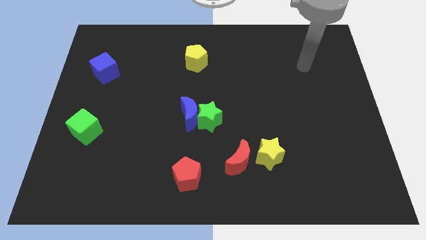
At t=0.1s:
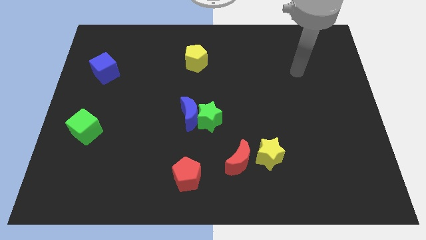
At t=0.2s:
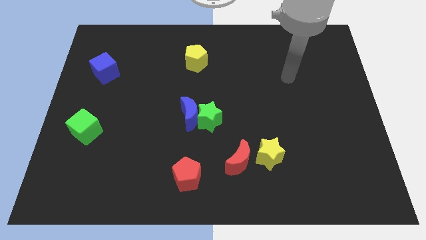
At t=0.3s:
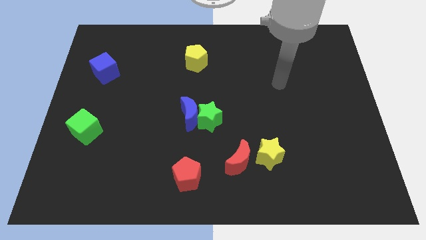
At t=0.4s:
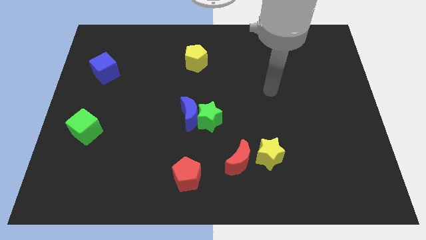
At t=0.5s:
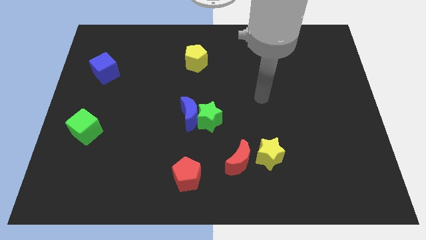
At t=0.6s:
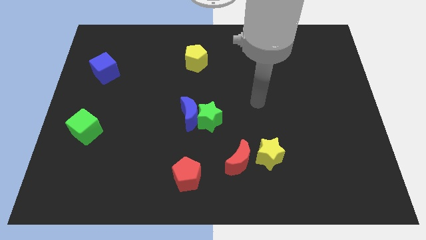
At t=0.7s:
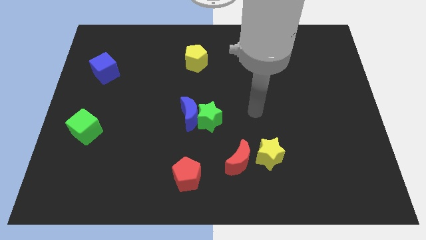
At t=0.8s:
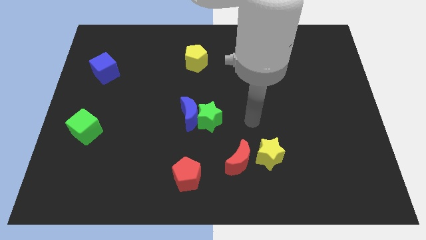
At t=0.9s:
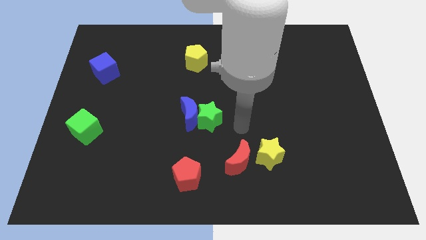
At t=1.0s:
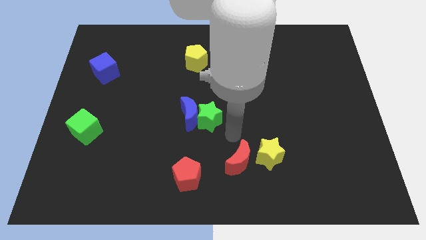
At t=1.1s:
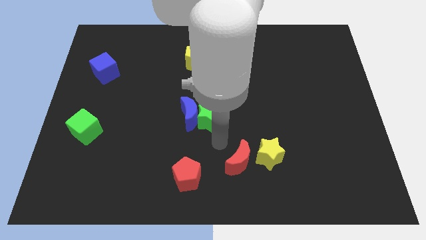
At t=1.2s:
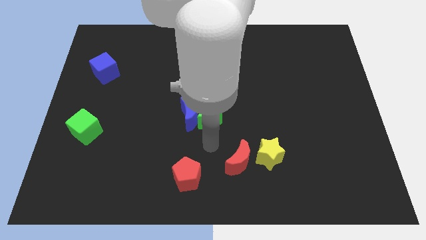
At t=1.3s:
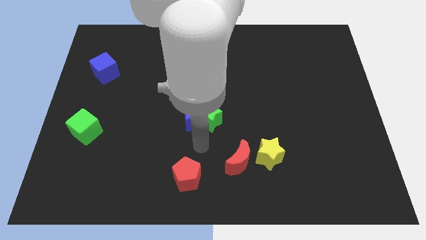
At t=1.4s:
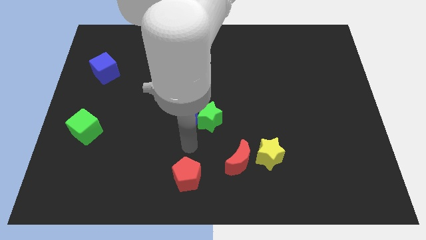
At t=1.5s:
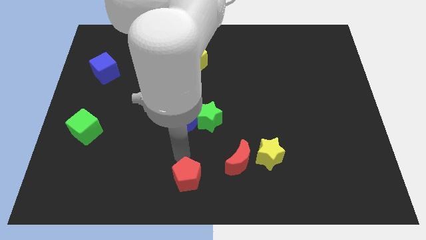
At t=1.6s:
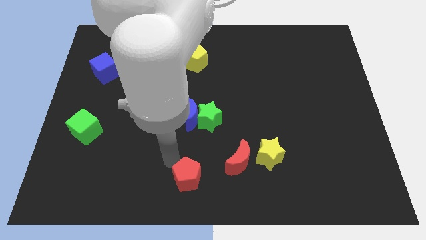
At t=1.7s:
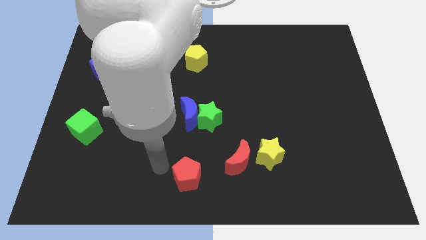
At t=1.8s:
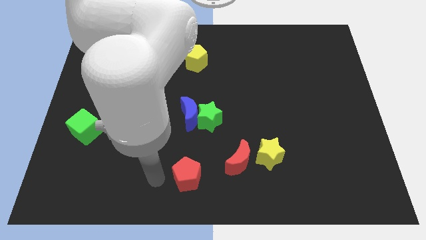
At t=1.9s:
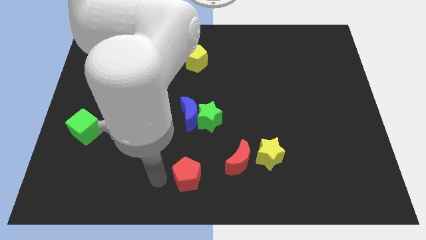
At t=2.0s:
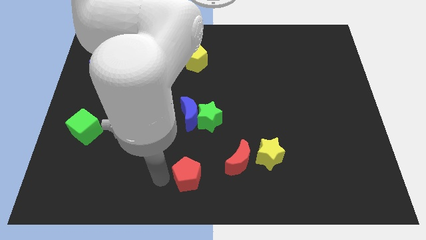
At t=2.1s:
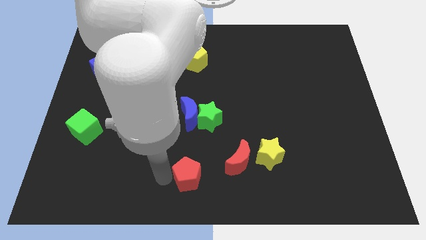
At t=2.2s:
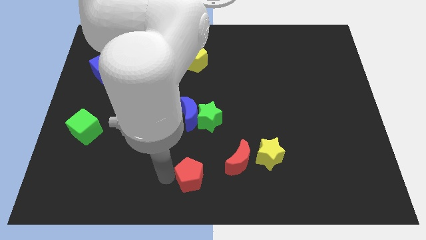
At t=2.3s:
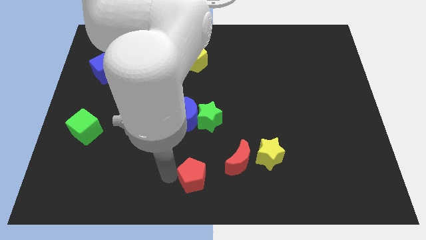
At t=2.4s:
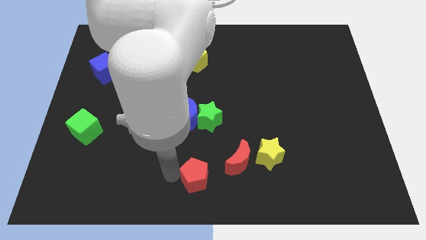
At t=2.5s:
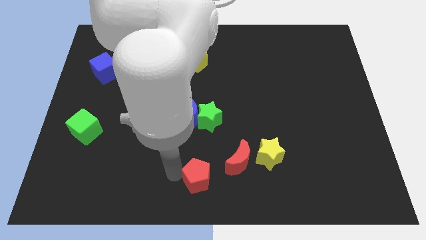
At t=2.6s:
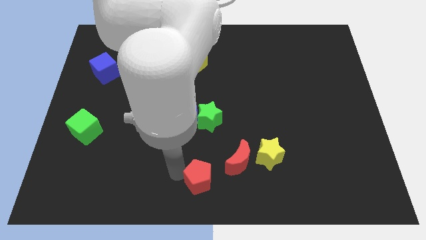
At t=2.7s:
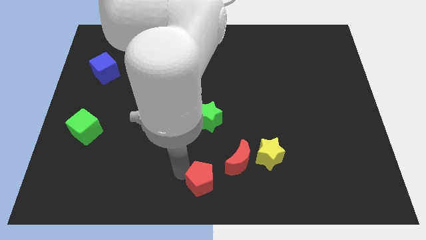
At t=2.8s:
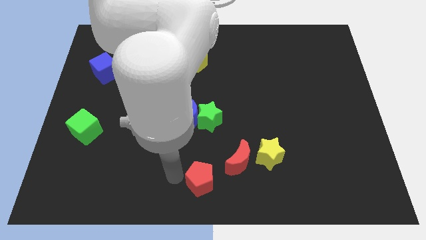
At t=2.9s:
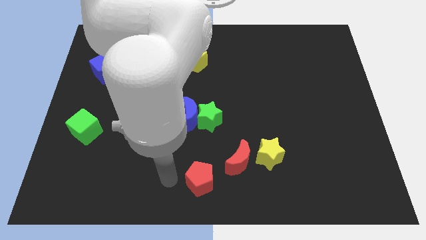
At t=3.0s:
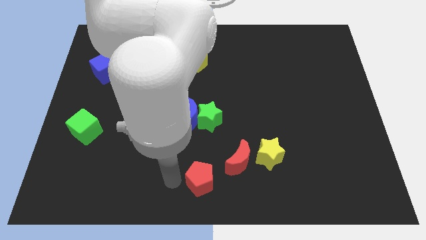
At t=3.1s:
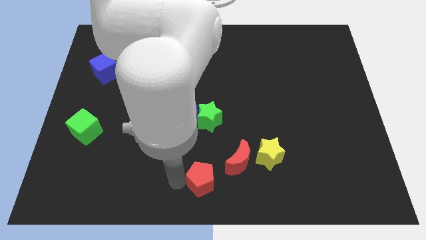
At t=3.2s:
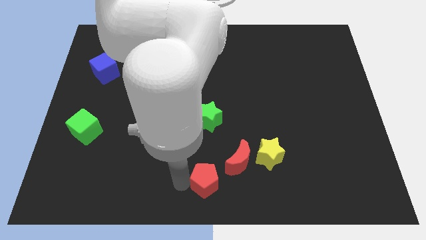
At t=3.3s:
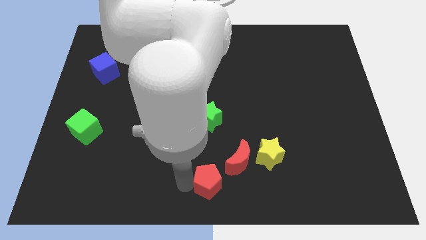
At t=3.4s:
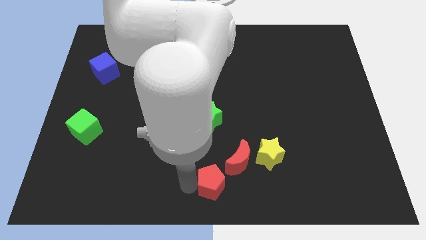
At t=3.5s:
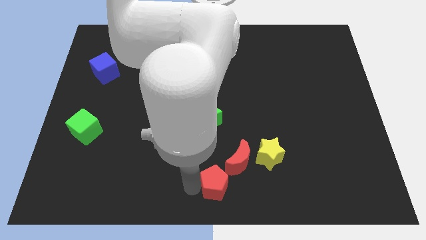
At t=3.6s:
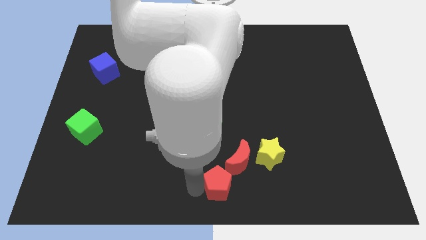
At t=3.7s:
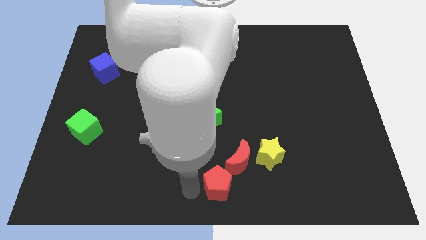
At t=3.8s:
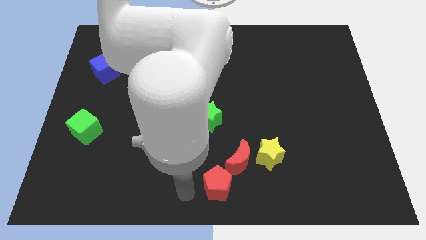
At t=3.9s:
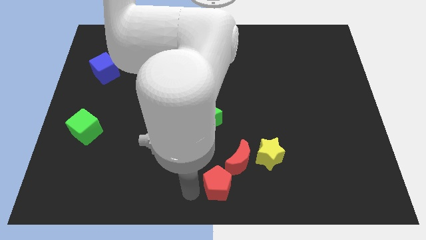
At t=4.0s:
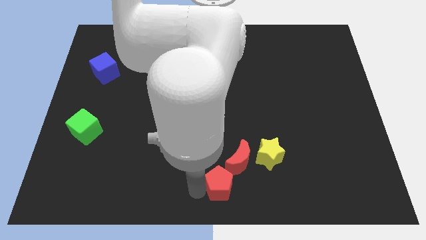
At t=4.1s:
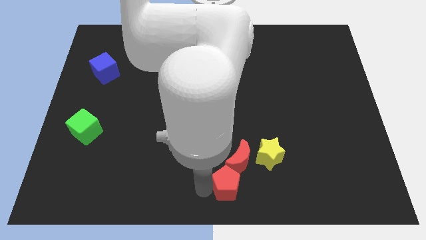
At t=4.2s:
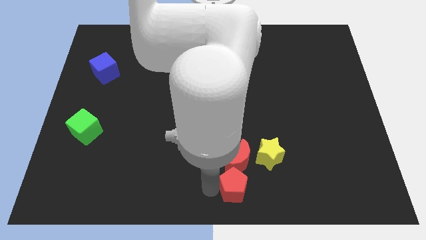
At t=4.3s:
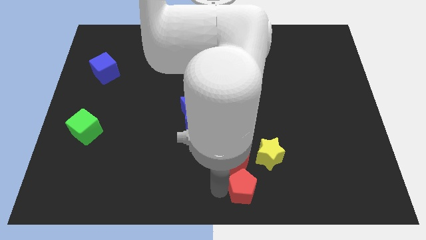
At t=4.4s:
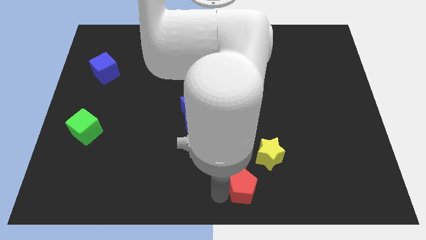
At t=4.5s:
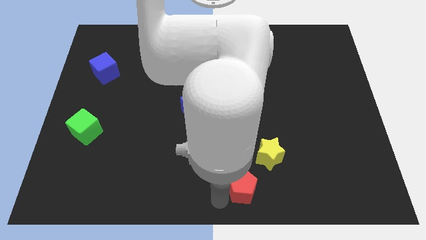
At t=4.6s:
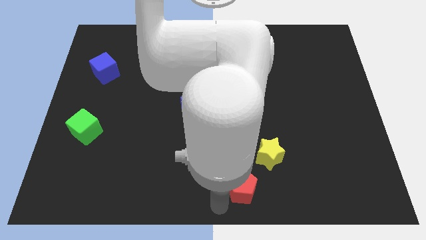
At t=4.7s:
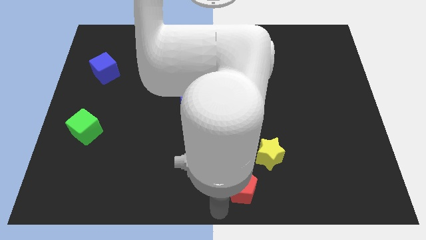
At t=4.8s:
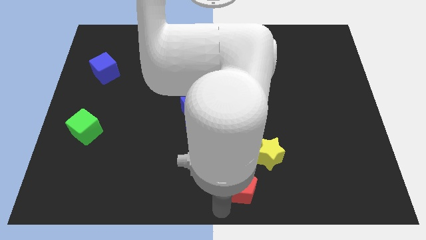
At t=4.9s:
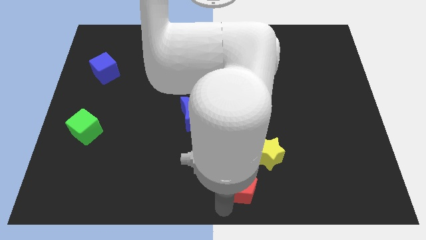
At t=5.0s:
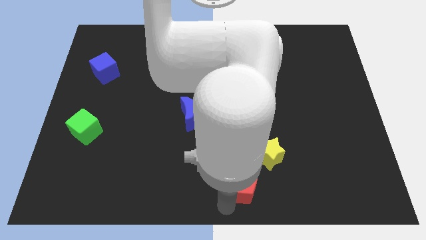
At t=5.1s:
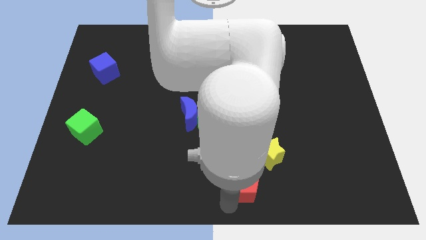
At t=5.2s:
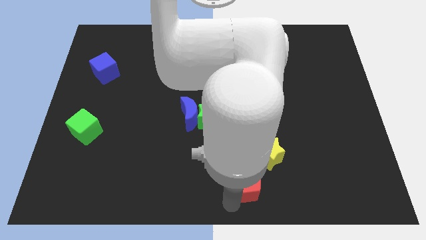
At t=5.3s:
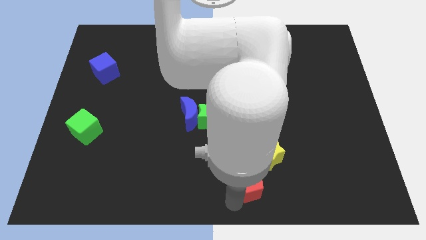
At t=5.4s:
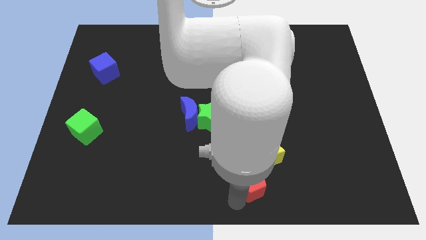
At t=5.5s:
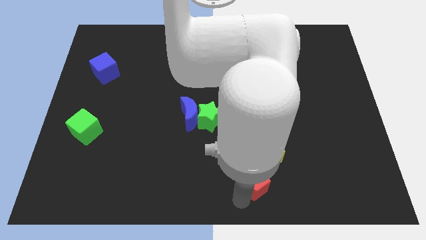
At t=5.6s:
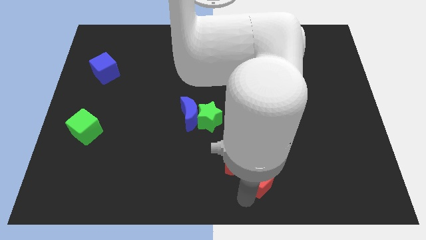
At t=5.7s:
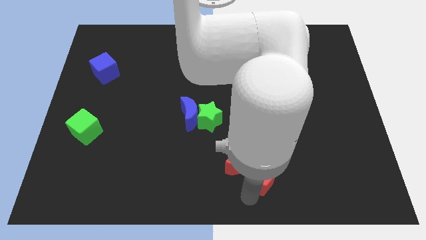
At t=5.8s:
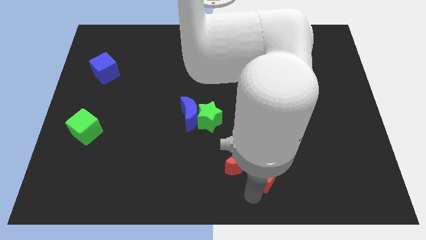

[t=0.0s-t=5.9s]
put the red pentagon next to the yellow star

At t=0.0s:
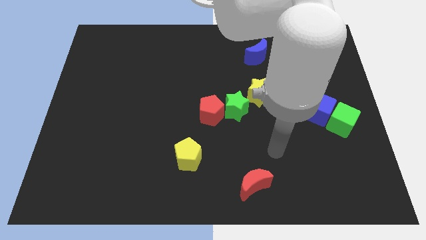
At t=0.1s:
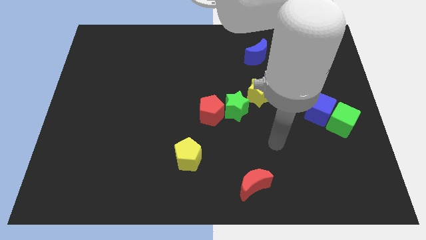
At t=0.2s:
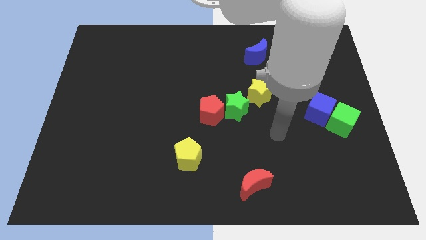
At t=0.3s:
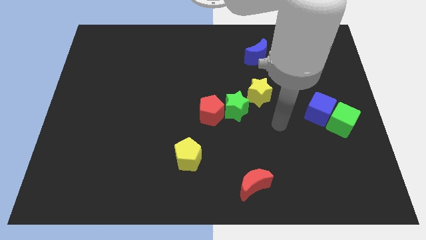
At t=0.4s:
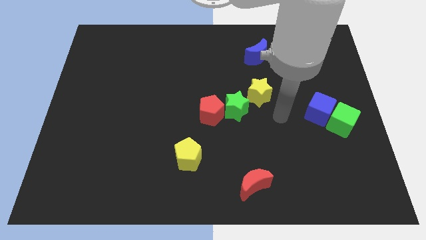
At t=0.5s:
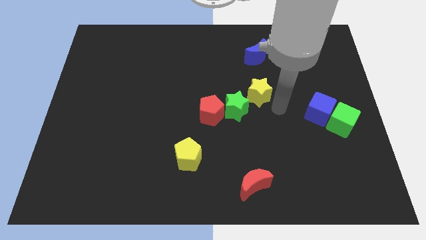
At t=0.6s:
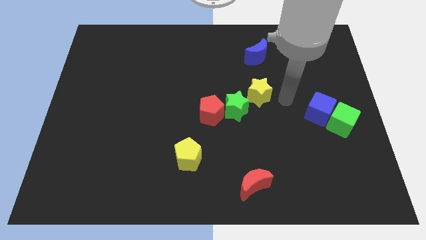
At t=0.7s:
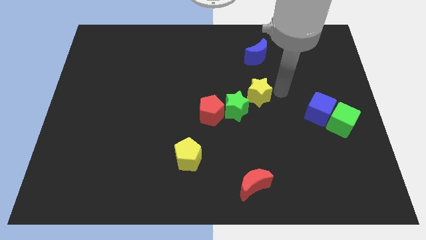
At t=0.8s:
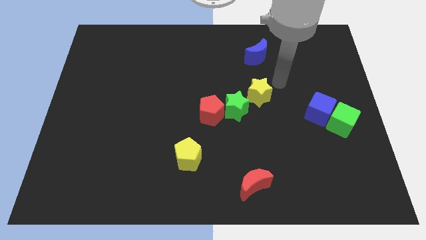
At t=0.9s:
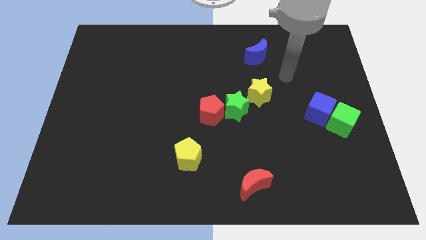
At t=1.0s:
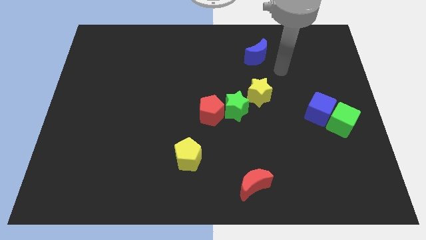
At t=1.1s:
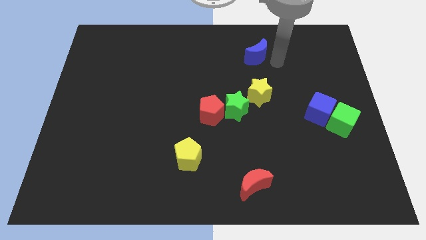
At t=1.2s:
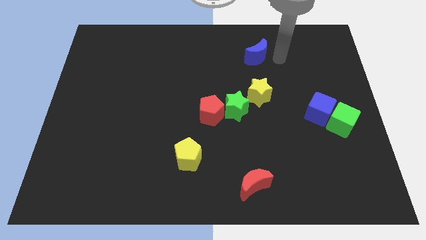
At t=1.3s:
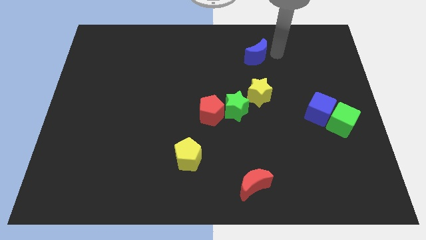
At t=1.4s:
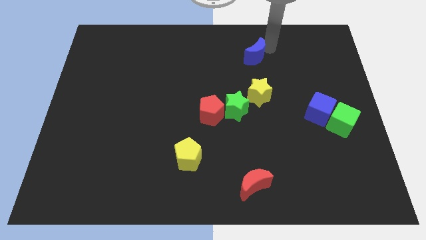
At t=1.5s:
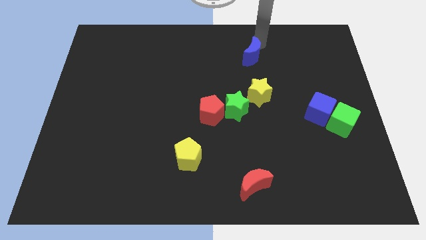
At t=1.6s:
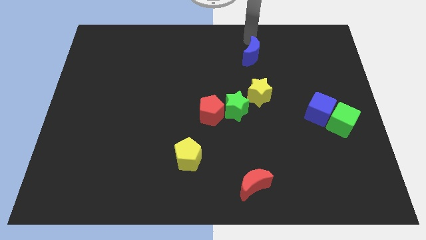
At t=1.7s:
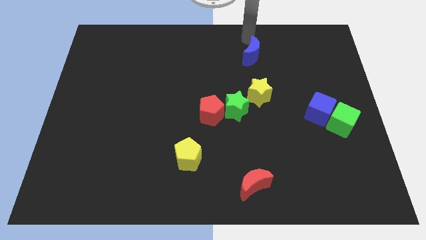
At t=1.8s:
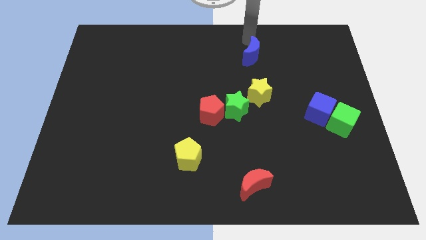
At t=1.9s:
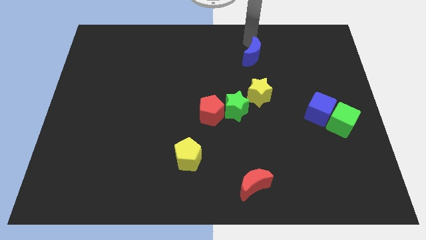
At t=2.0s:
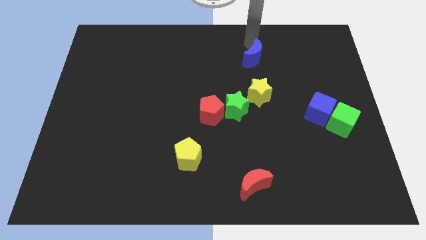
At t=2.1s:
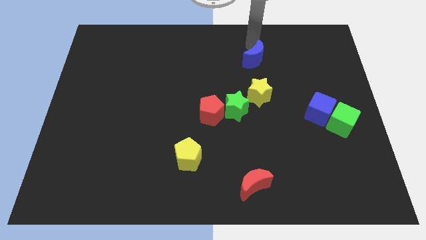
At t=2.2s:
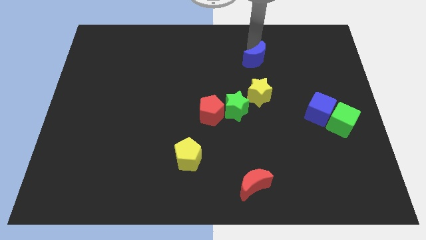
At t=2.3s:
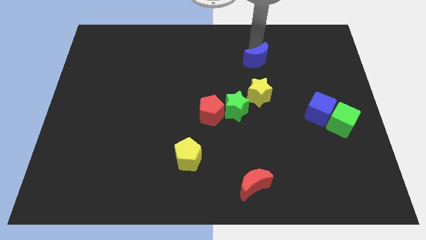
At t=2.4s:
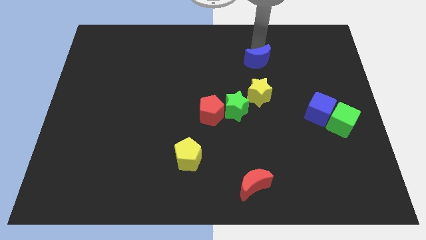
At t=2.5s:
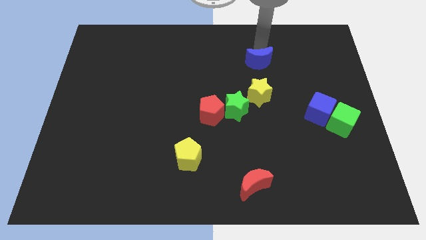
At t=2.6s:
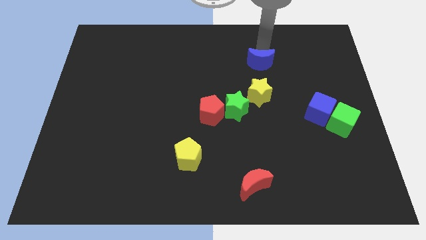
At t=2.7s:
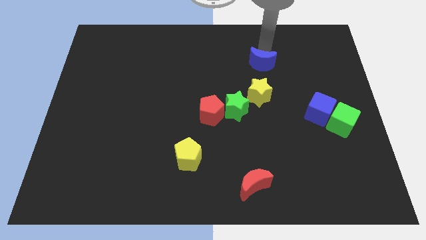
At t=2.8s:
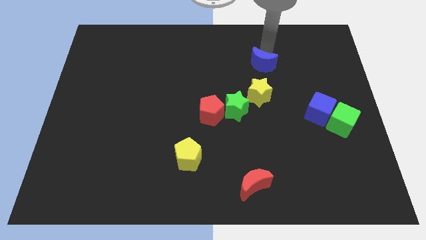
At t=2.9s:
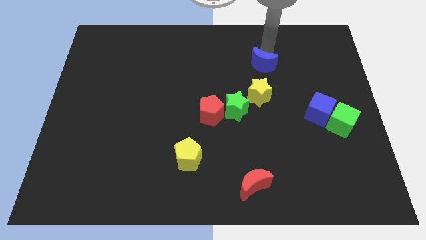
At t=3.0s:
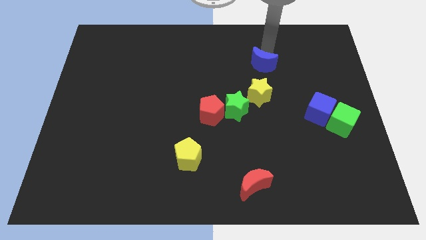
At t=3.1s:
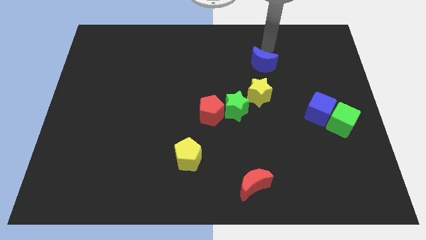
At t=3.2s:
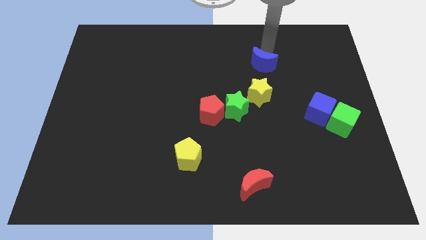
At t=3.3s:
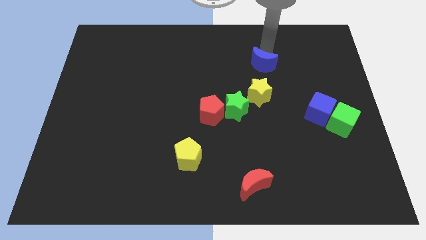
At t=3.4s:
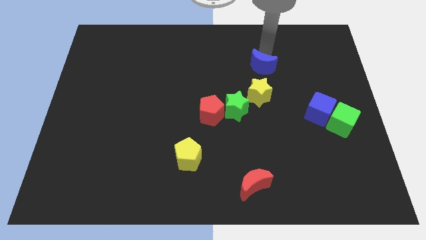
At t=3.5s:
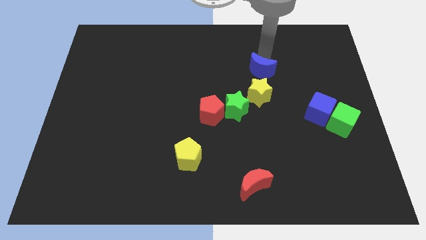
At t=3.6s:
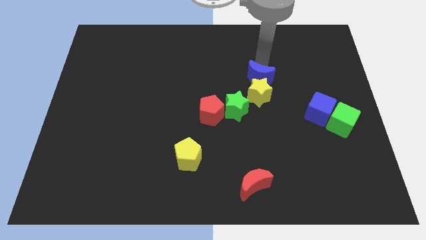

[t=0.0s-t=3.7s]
put the blue moon close to the yellow star
